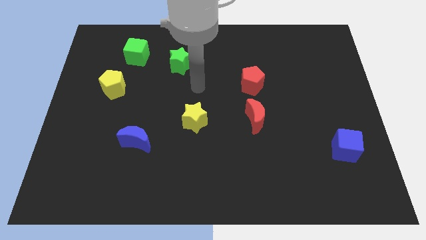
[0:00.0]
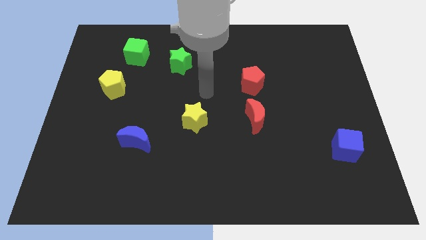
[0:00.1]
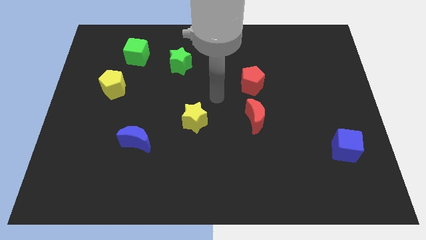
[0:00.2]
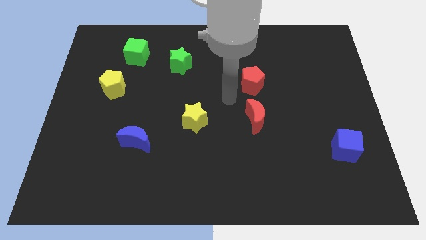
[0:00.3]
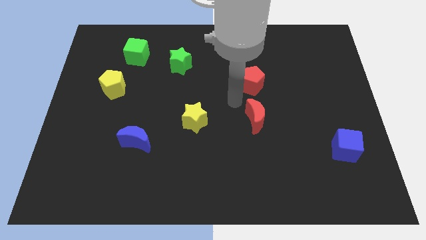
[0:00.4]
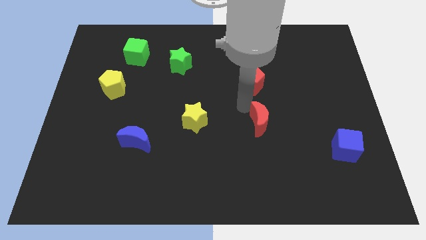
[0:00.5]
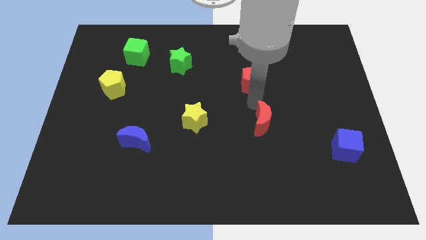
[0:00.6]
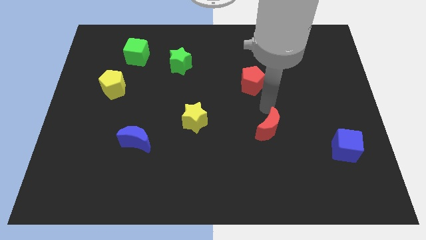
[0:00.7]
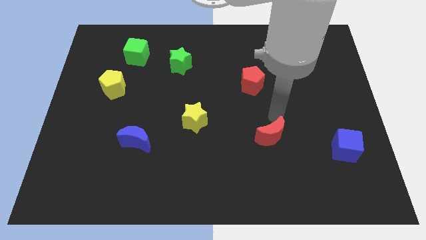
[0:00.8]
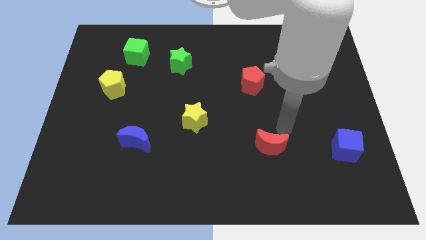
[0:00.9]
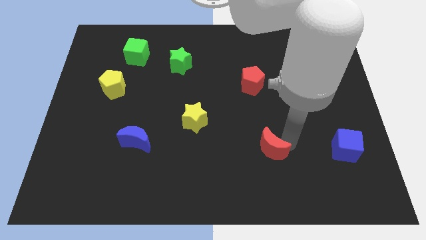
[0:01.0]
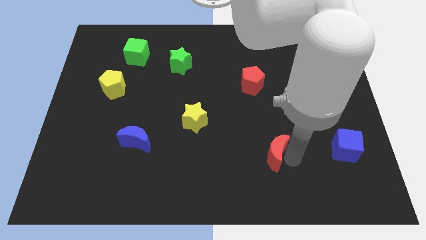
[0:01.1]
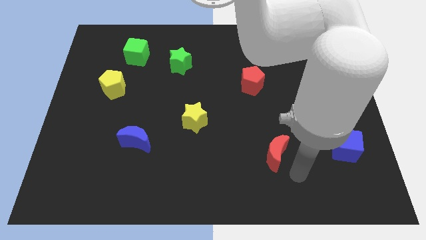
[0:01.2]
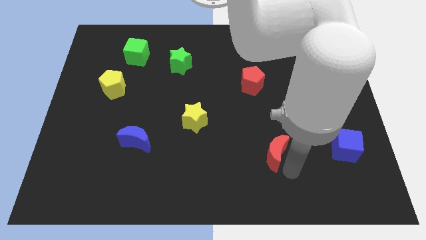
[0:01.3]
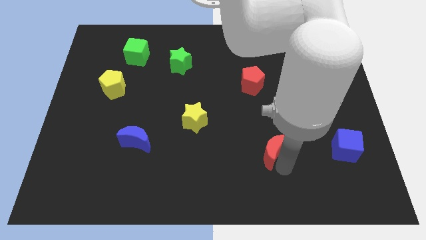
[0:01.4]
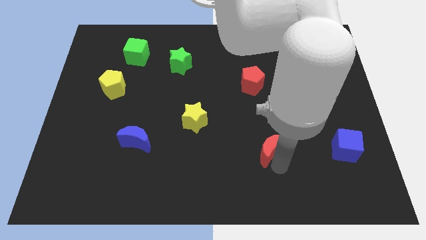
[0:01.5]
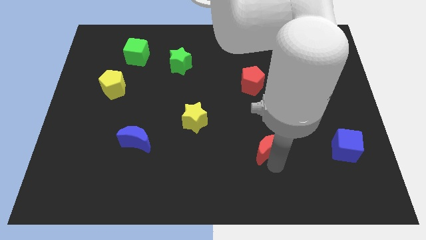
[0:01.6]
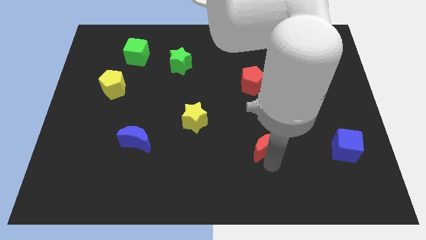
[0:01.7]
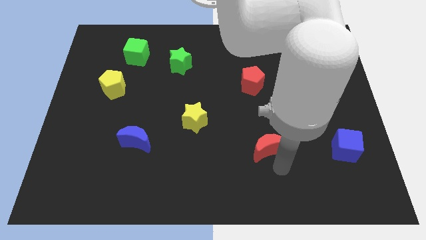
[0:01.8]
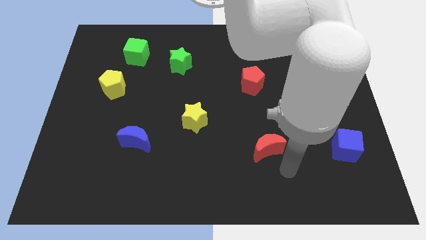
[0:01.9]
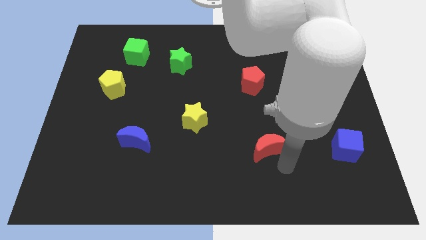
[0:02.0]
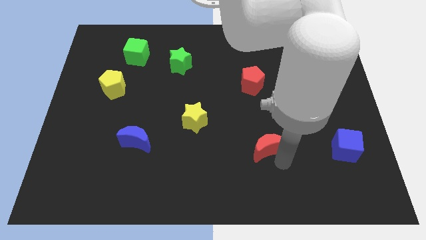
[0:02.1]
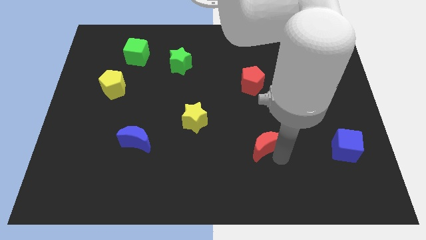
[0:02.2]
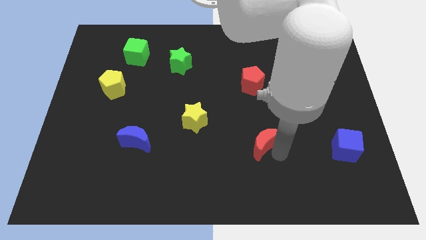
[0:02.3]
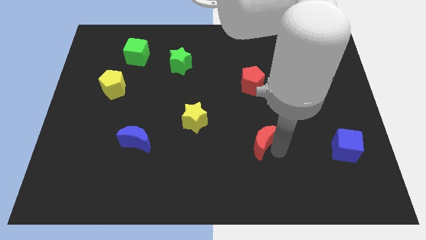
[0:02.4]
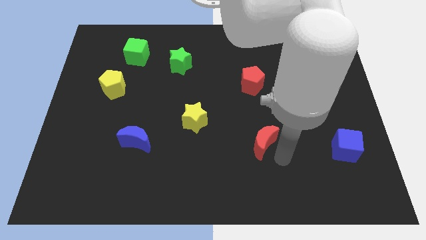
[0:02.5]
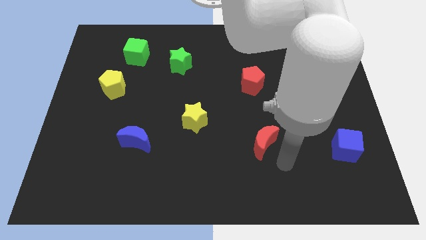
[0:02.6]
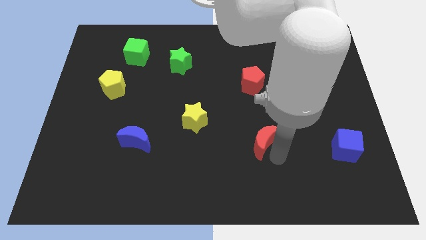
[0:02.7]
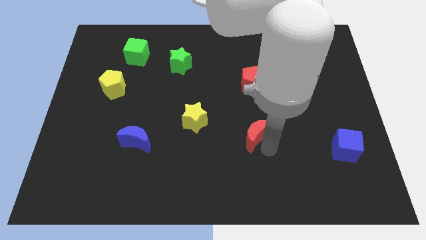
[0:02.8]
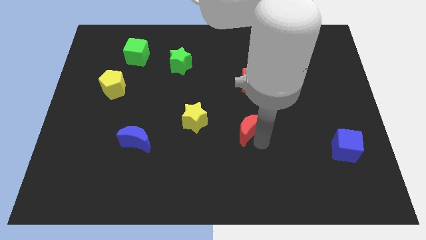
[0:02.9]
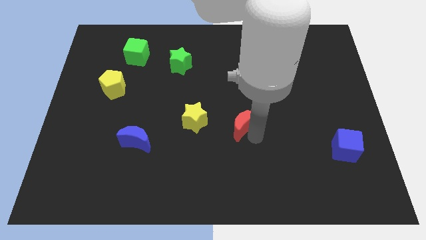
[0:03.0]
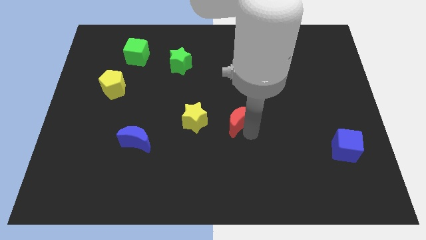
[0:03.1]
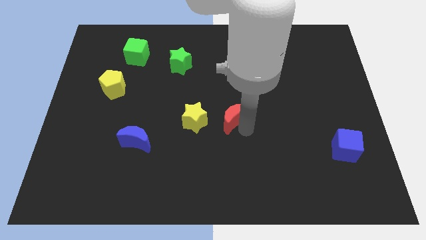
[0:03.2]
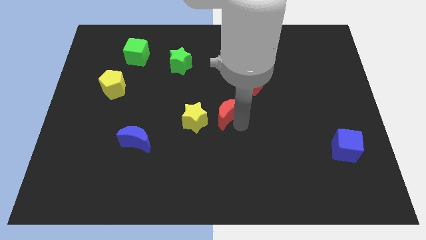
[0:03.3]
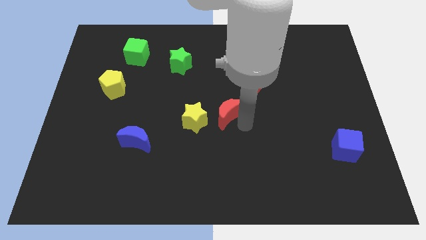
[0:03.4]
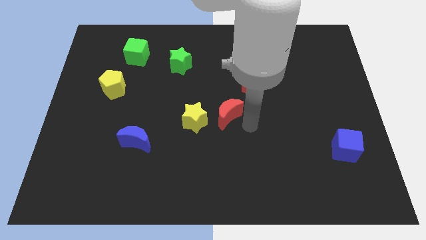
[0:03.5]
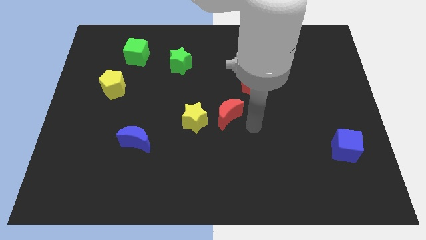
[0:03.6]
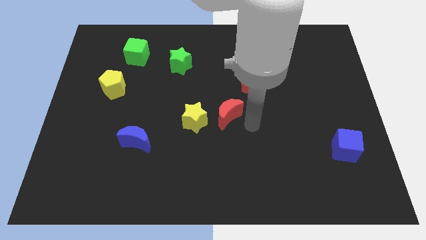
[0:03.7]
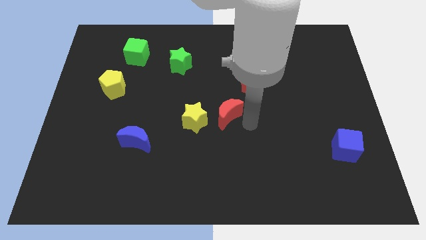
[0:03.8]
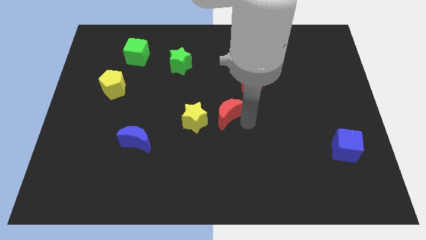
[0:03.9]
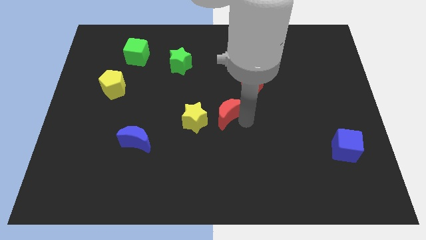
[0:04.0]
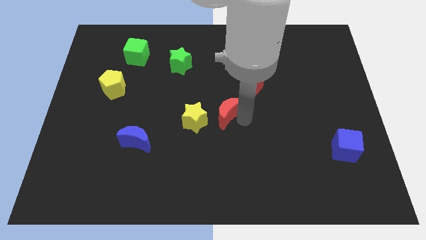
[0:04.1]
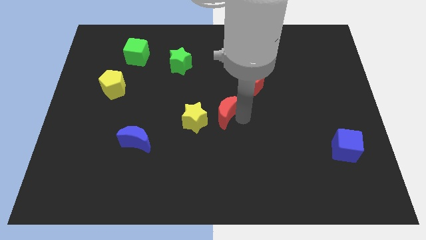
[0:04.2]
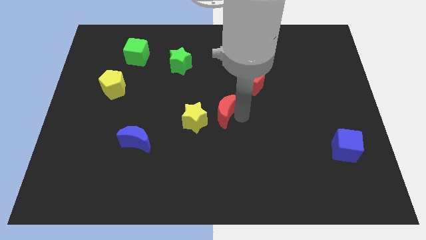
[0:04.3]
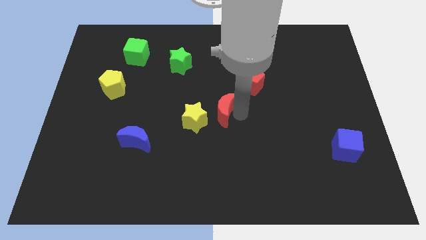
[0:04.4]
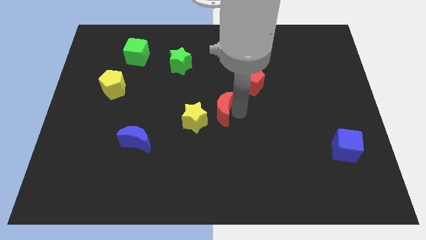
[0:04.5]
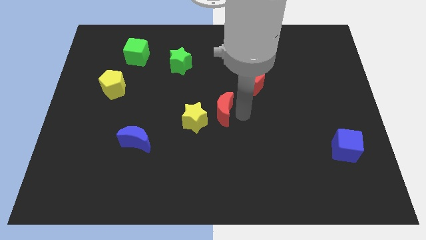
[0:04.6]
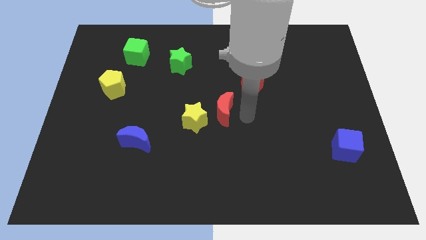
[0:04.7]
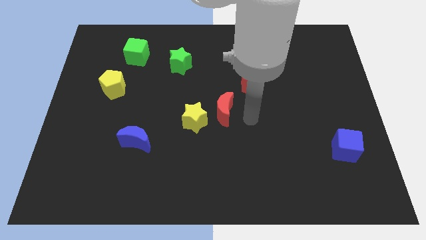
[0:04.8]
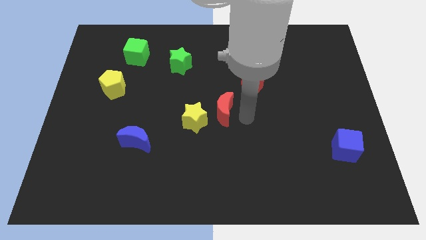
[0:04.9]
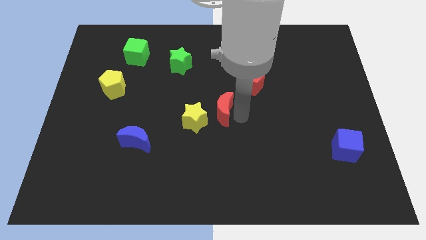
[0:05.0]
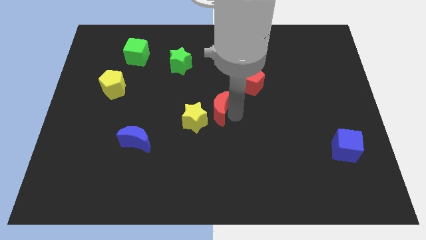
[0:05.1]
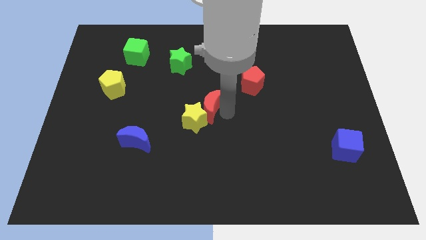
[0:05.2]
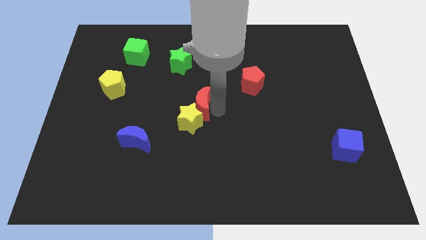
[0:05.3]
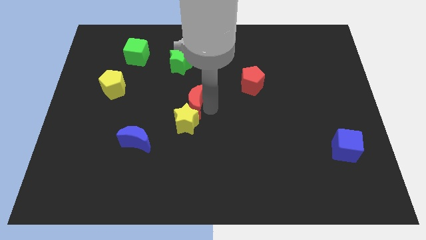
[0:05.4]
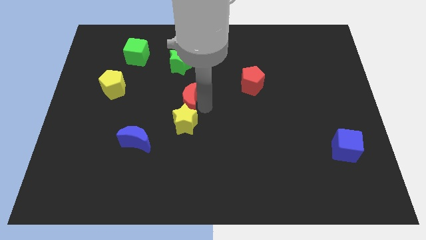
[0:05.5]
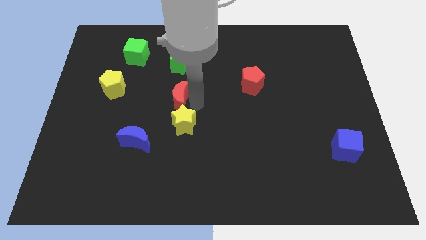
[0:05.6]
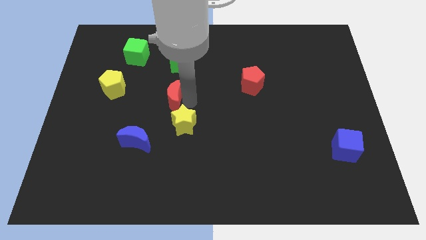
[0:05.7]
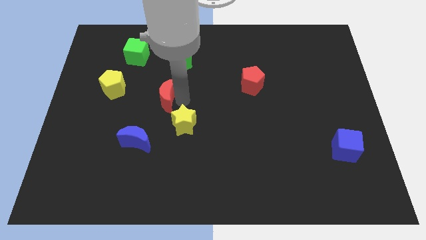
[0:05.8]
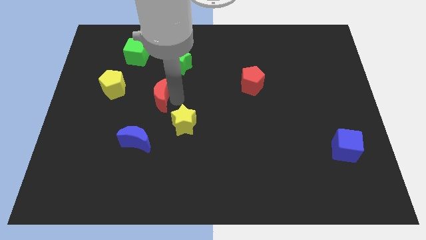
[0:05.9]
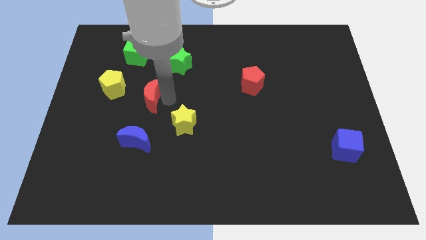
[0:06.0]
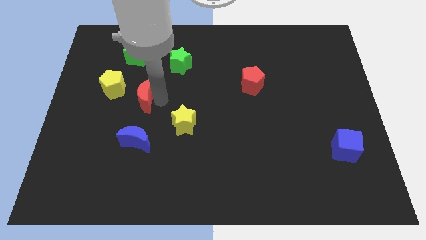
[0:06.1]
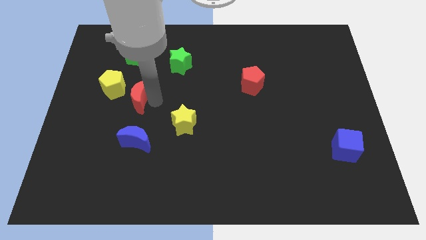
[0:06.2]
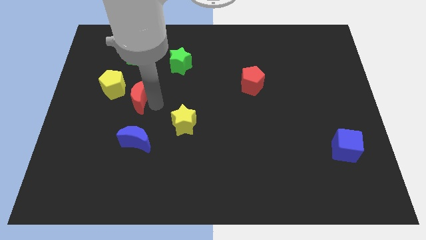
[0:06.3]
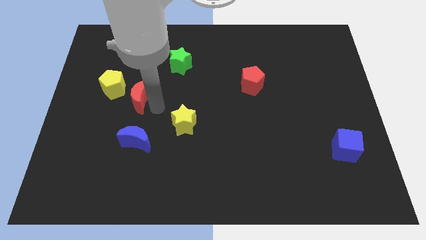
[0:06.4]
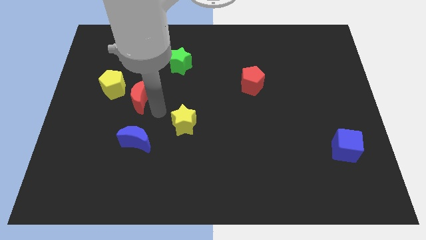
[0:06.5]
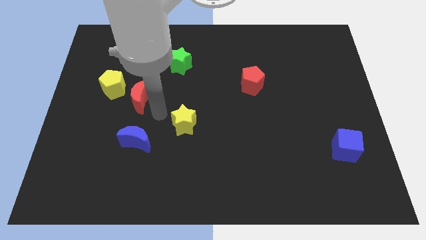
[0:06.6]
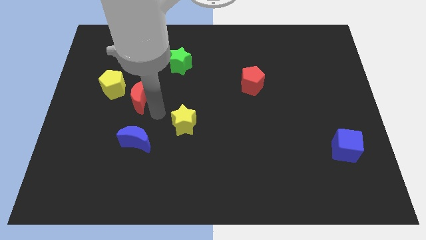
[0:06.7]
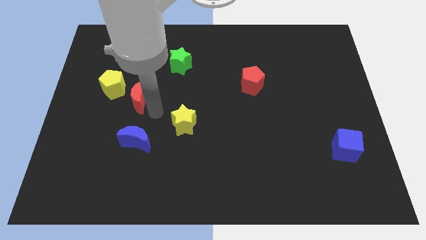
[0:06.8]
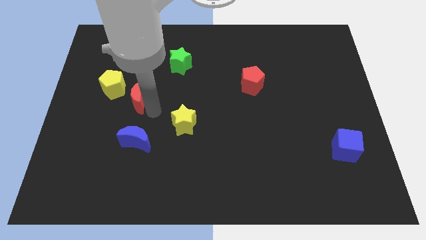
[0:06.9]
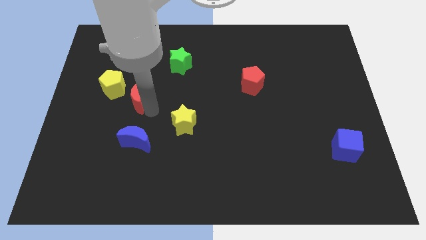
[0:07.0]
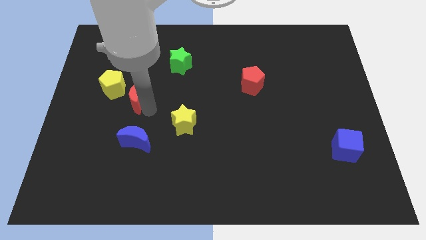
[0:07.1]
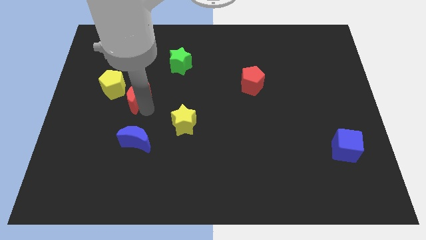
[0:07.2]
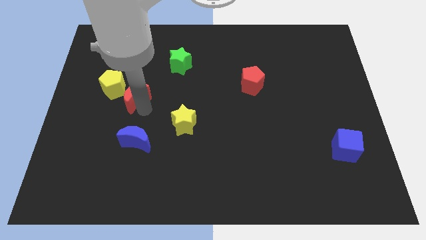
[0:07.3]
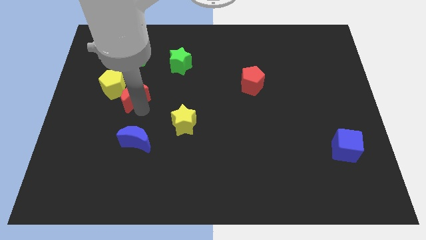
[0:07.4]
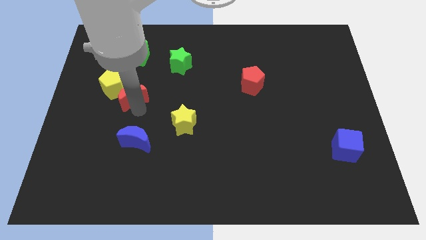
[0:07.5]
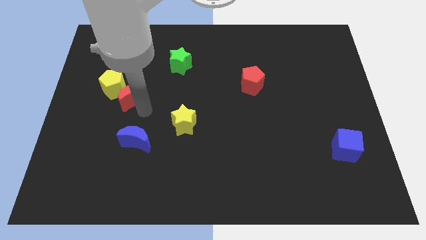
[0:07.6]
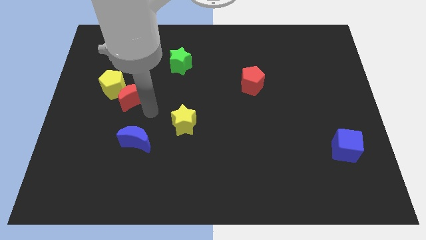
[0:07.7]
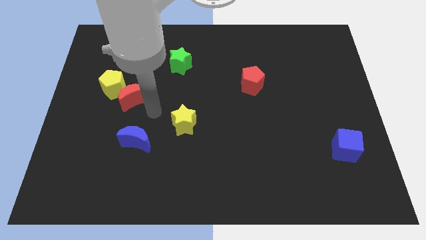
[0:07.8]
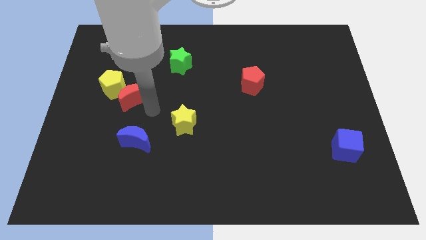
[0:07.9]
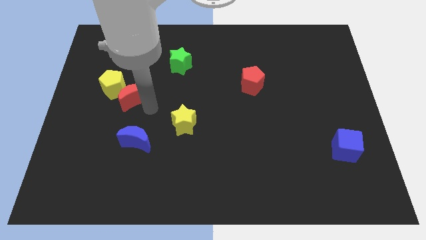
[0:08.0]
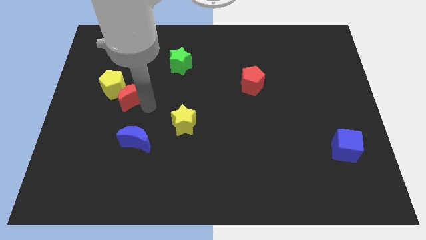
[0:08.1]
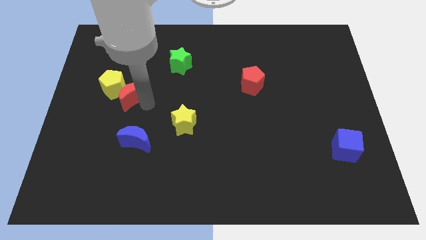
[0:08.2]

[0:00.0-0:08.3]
move the red moon next to the yellow pentagon
